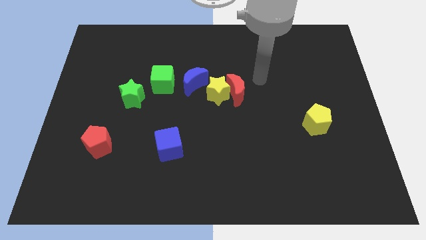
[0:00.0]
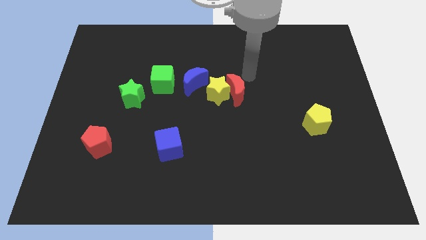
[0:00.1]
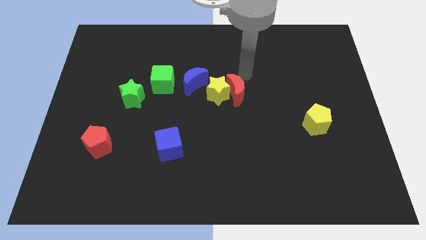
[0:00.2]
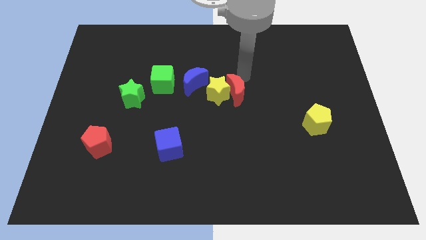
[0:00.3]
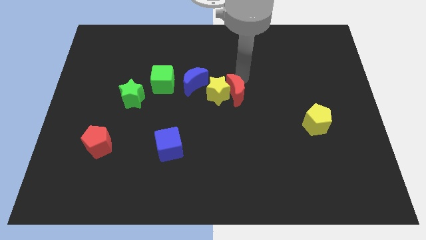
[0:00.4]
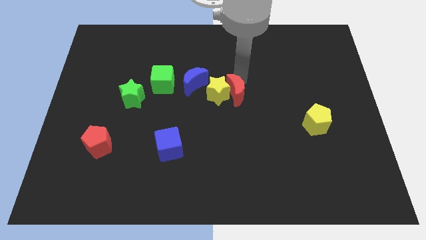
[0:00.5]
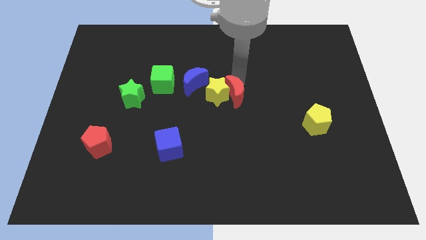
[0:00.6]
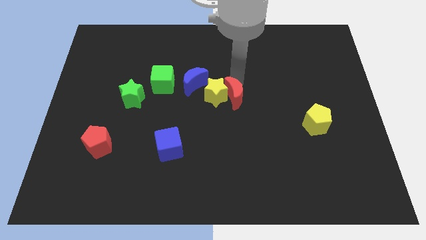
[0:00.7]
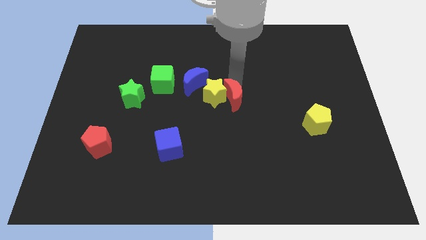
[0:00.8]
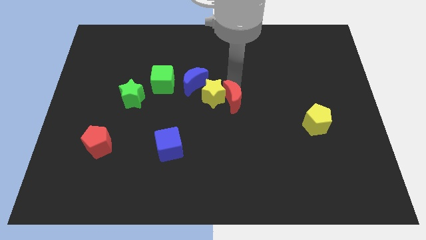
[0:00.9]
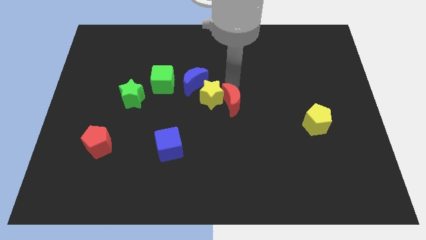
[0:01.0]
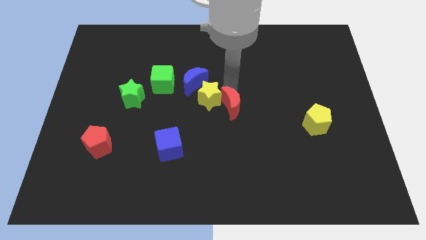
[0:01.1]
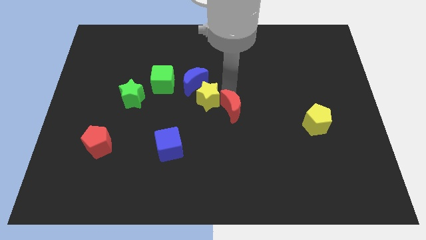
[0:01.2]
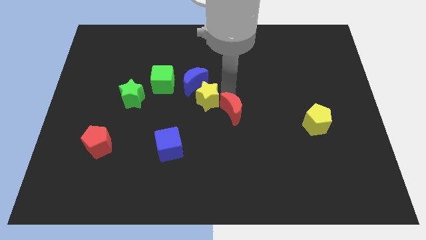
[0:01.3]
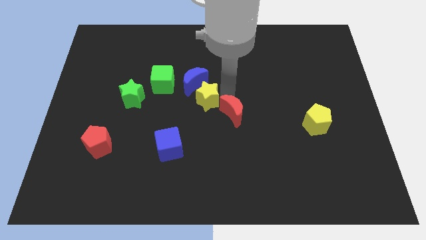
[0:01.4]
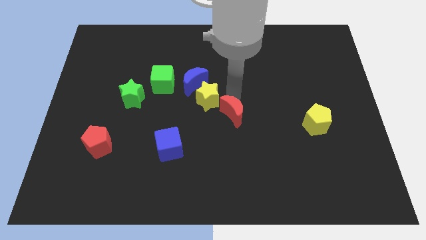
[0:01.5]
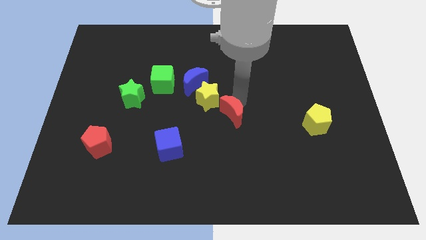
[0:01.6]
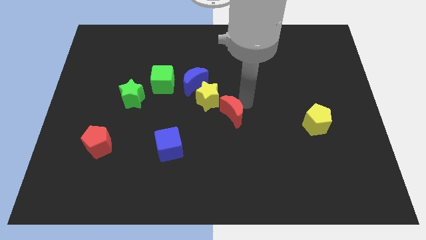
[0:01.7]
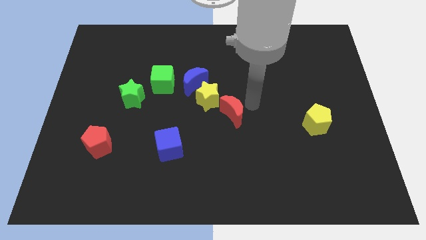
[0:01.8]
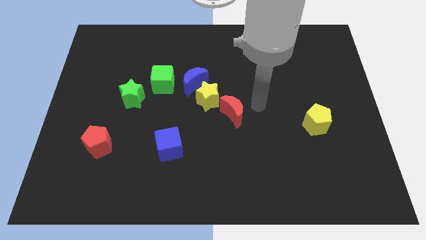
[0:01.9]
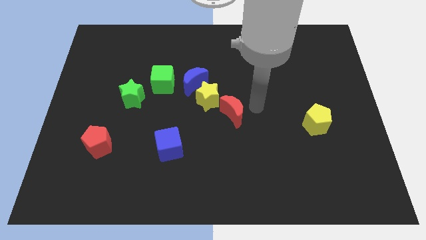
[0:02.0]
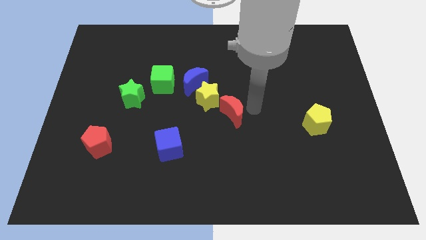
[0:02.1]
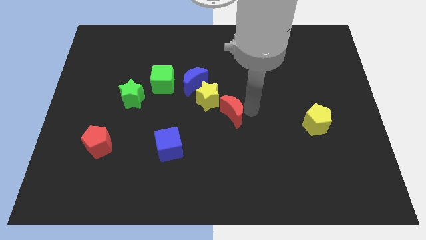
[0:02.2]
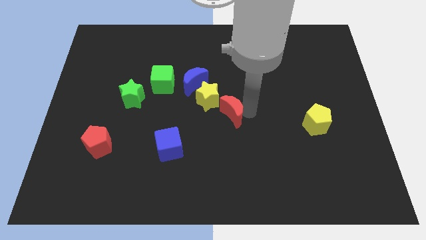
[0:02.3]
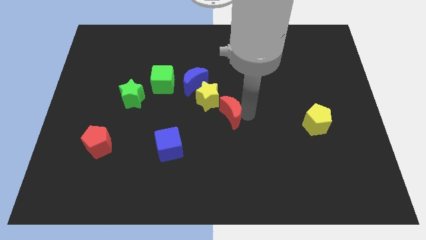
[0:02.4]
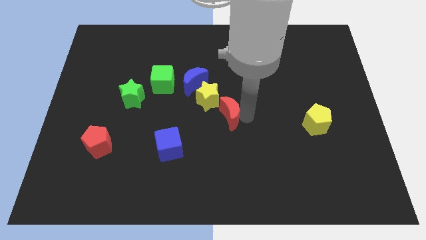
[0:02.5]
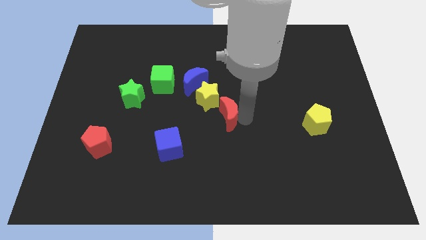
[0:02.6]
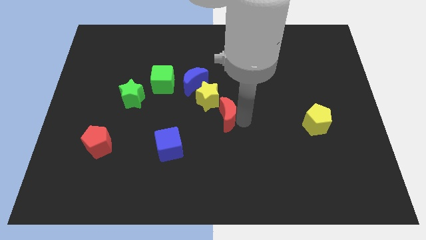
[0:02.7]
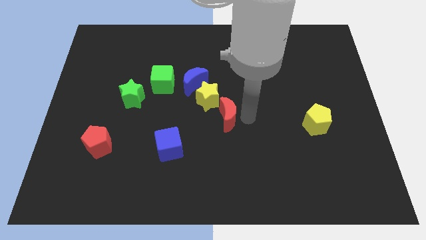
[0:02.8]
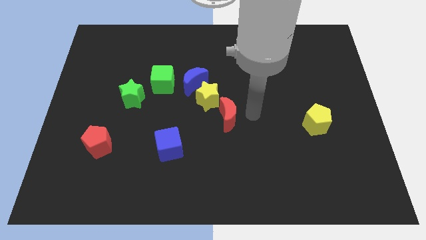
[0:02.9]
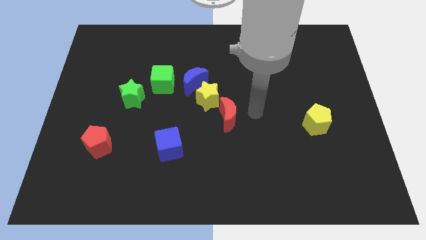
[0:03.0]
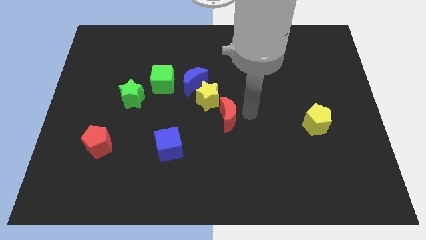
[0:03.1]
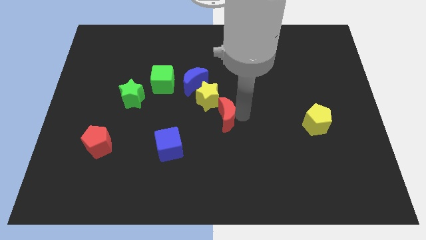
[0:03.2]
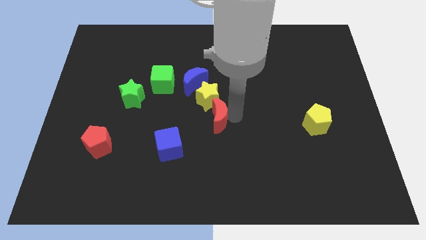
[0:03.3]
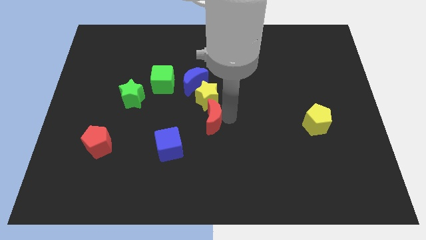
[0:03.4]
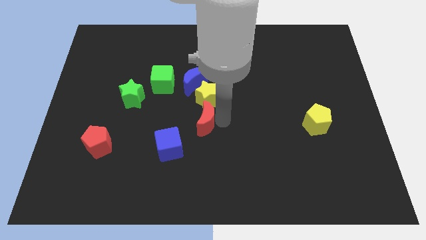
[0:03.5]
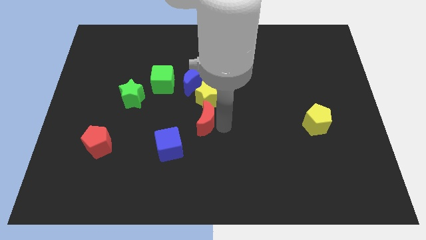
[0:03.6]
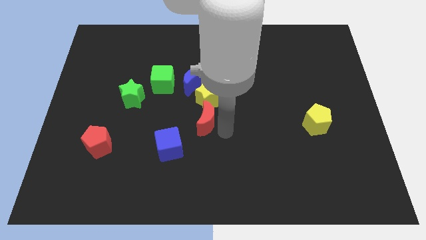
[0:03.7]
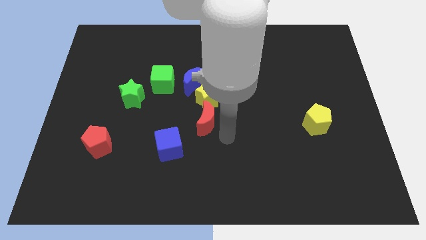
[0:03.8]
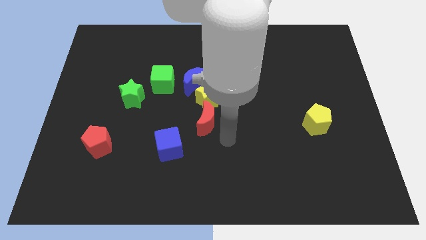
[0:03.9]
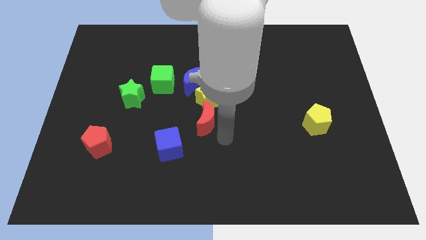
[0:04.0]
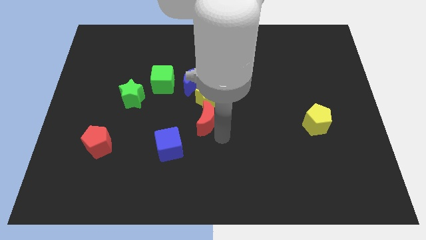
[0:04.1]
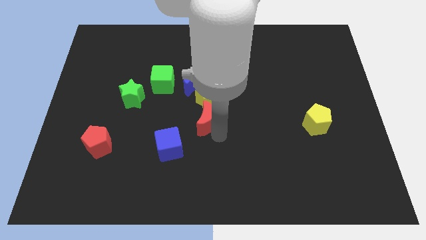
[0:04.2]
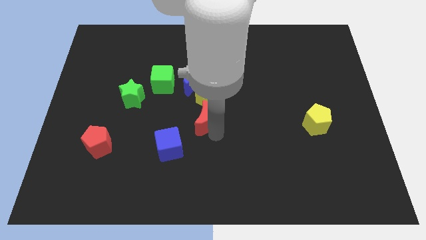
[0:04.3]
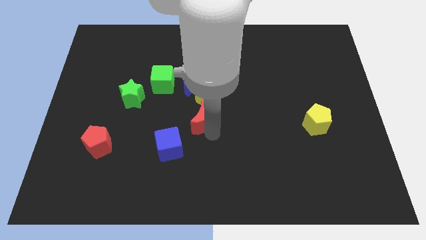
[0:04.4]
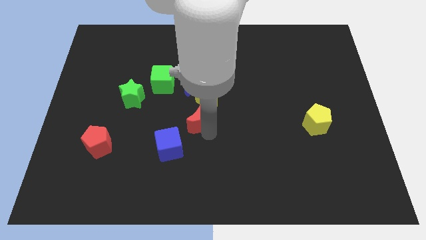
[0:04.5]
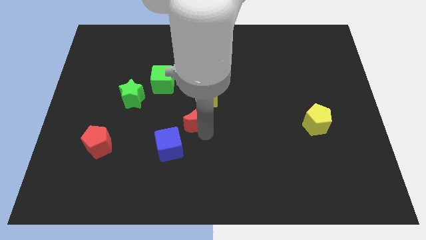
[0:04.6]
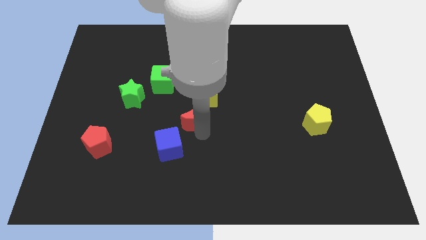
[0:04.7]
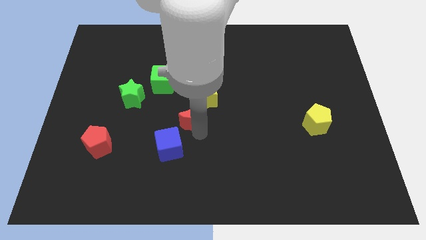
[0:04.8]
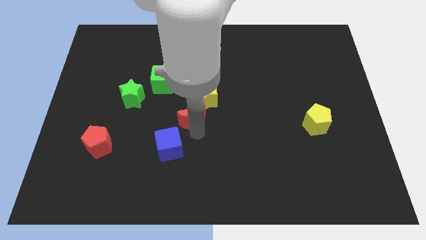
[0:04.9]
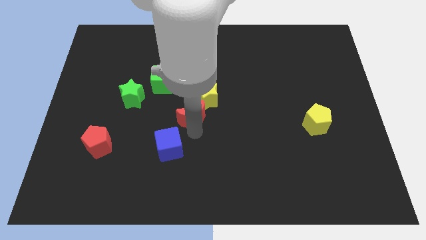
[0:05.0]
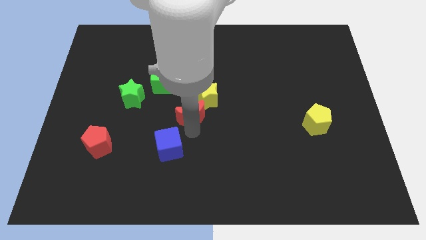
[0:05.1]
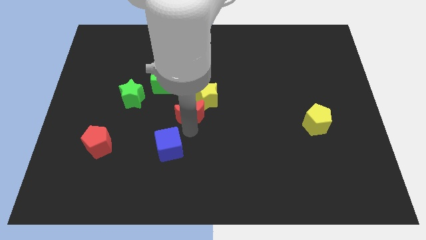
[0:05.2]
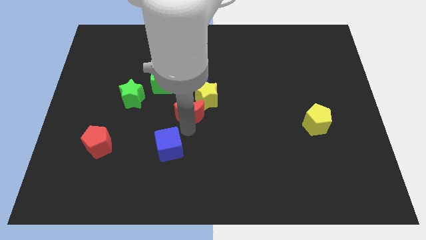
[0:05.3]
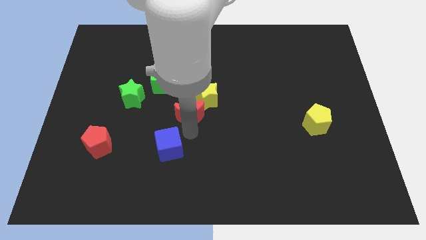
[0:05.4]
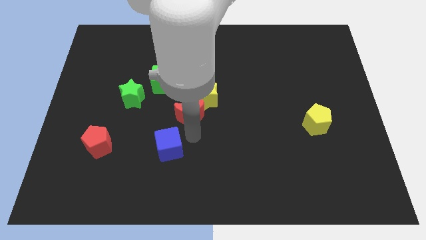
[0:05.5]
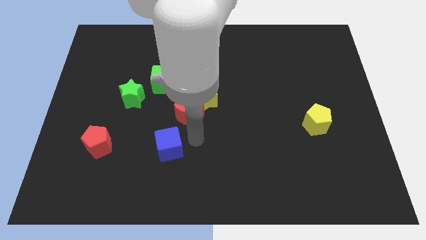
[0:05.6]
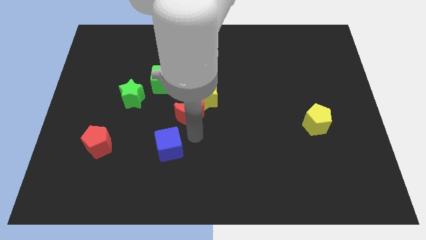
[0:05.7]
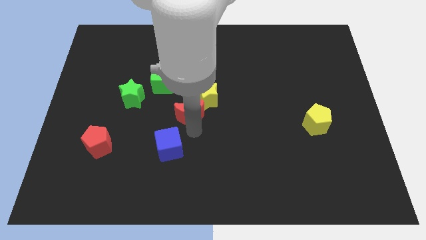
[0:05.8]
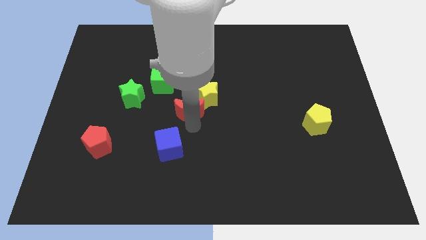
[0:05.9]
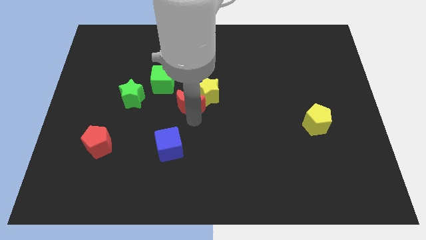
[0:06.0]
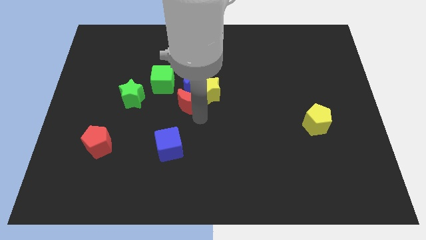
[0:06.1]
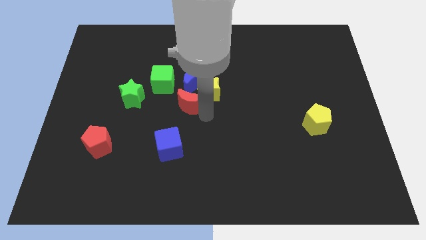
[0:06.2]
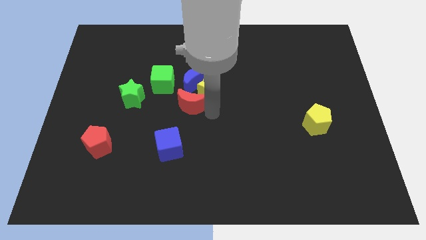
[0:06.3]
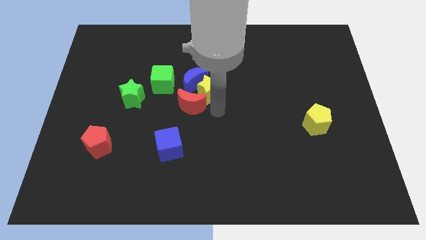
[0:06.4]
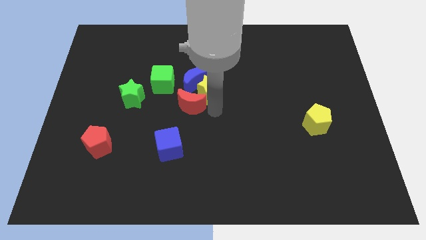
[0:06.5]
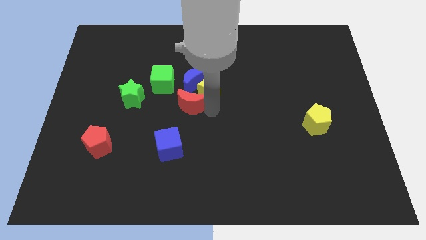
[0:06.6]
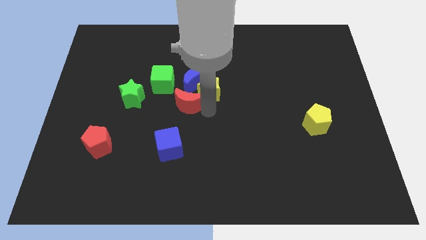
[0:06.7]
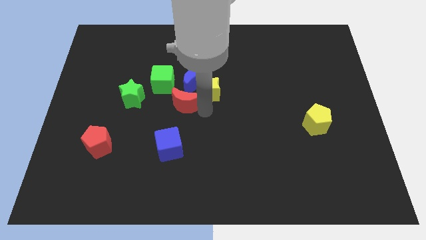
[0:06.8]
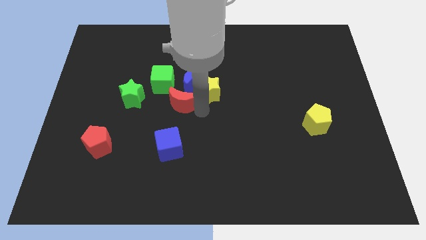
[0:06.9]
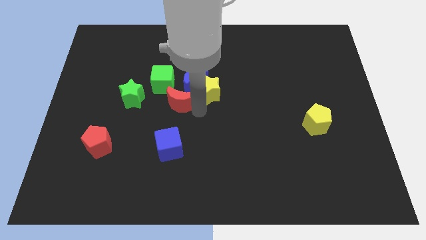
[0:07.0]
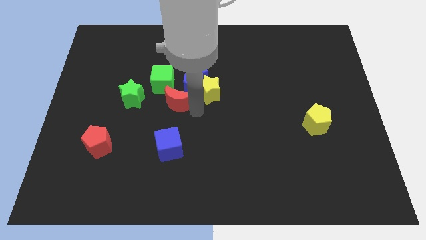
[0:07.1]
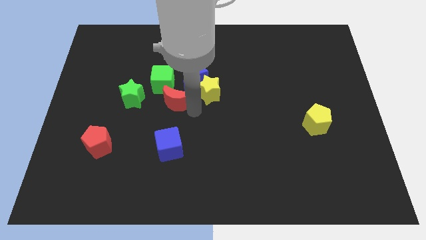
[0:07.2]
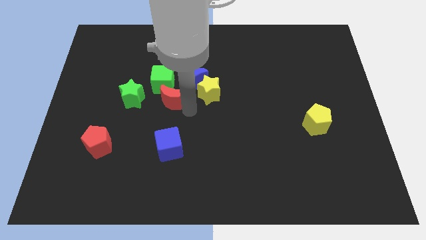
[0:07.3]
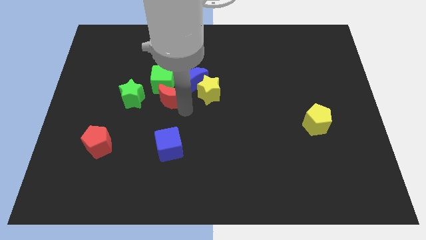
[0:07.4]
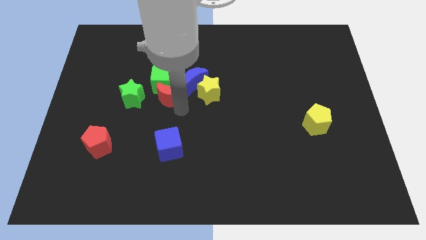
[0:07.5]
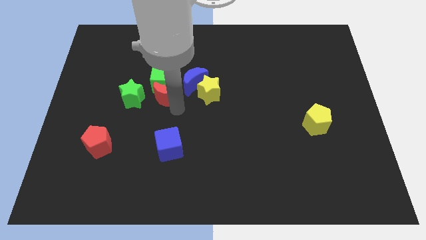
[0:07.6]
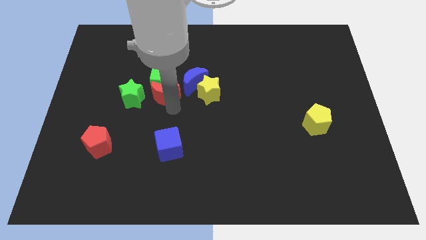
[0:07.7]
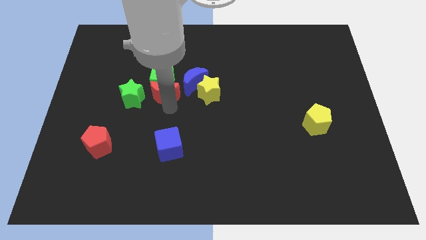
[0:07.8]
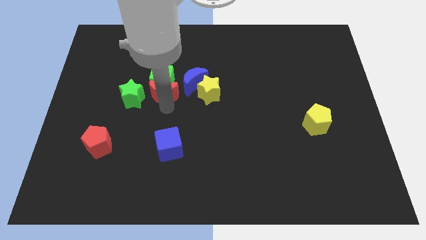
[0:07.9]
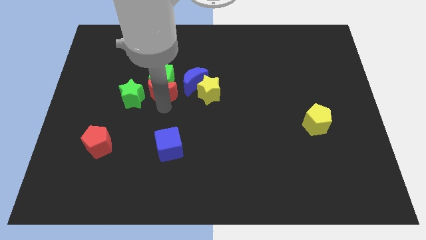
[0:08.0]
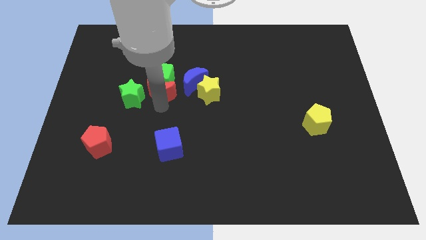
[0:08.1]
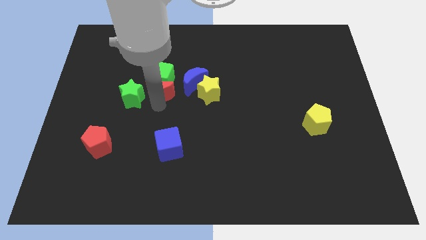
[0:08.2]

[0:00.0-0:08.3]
push the red moon next to the green star
